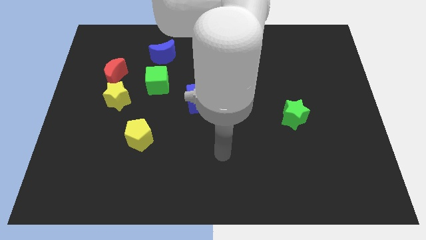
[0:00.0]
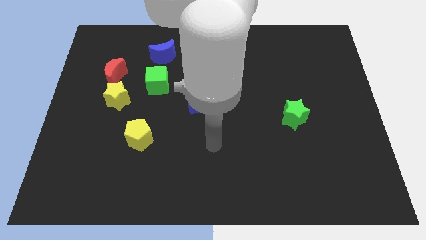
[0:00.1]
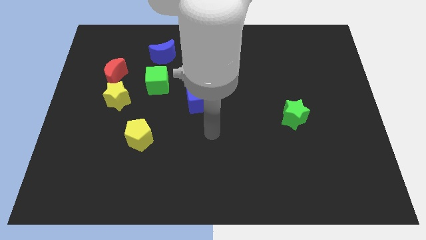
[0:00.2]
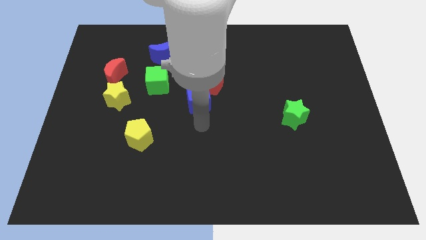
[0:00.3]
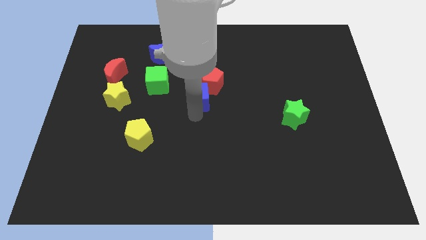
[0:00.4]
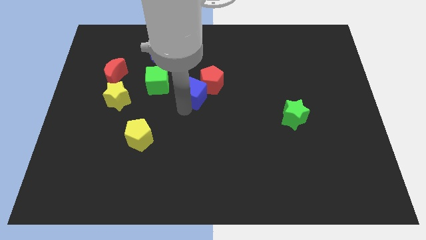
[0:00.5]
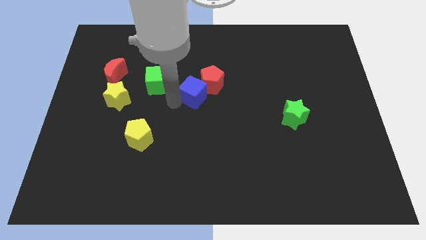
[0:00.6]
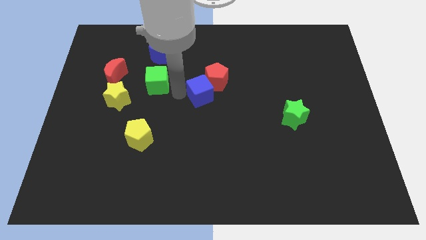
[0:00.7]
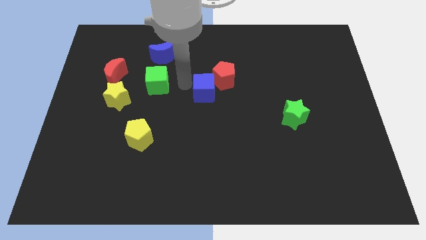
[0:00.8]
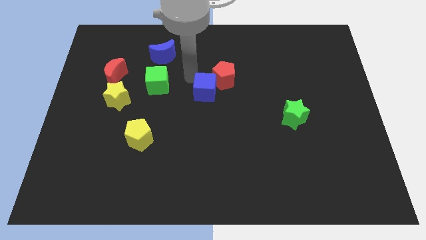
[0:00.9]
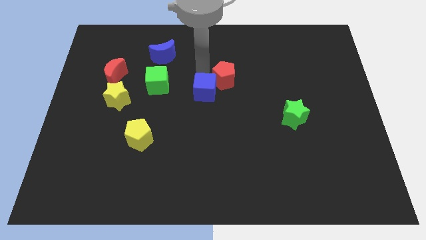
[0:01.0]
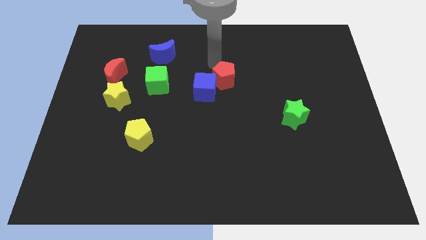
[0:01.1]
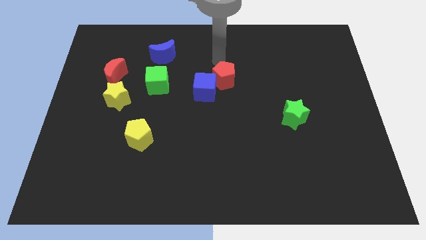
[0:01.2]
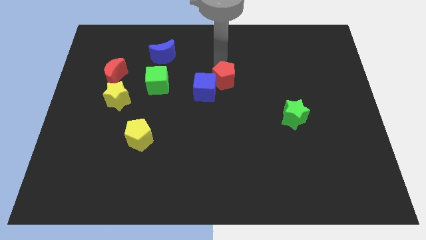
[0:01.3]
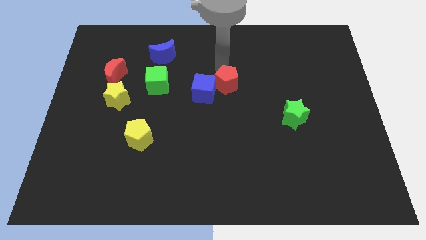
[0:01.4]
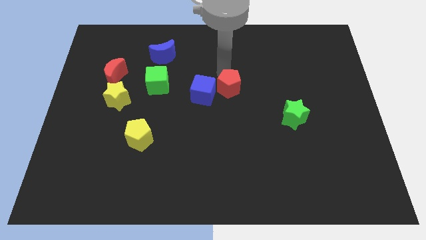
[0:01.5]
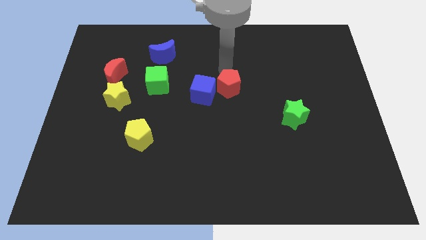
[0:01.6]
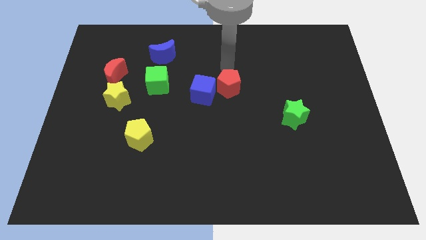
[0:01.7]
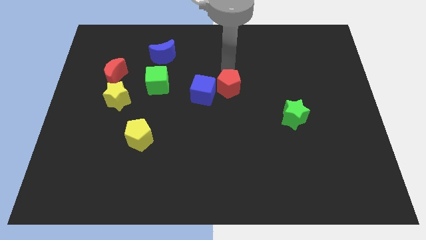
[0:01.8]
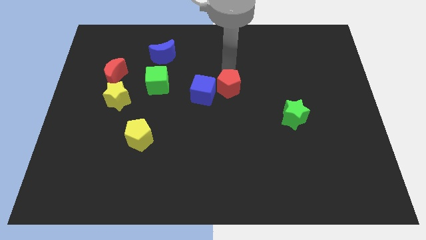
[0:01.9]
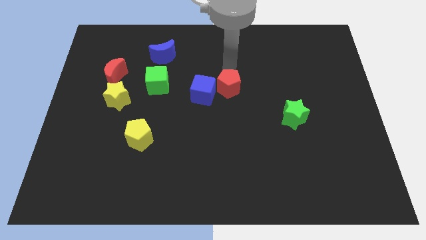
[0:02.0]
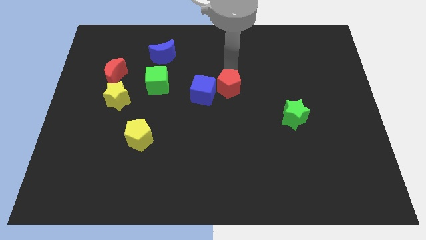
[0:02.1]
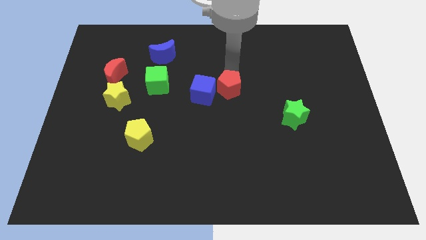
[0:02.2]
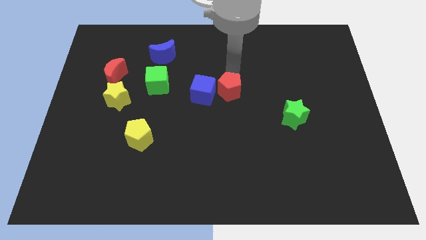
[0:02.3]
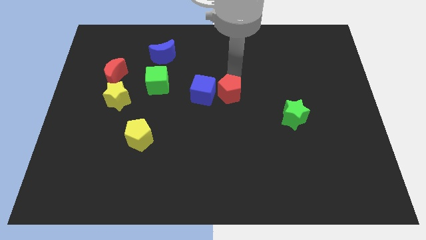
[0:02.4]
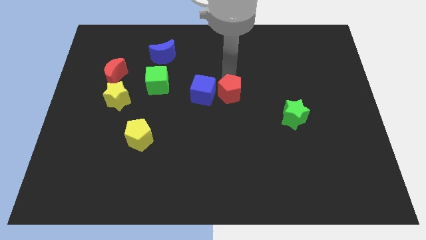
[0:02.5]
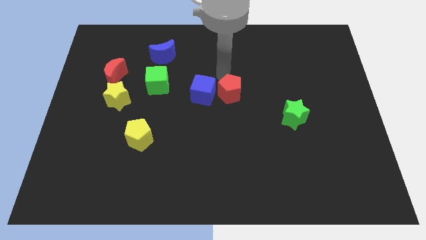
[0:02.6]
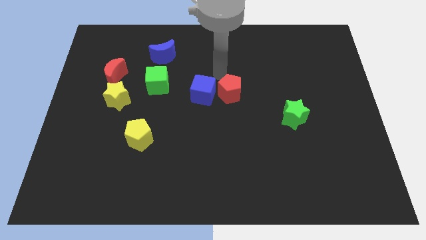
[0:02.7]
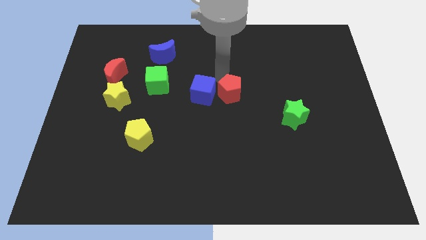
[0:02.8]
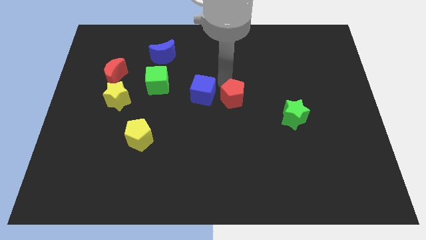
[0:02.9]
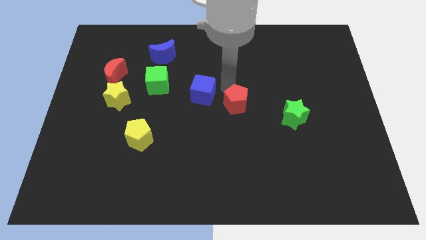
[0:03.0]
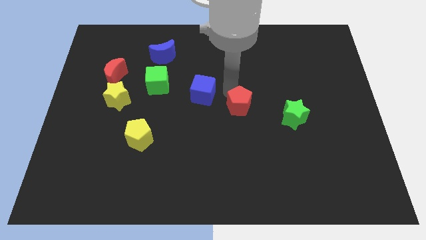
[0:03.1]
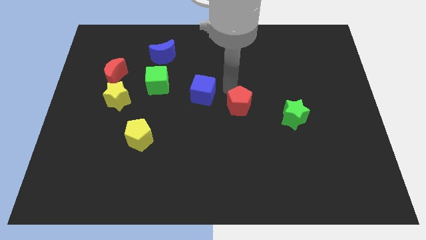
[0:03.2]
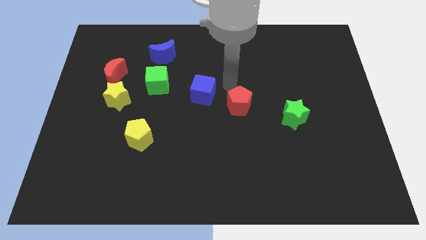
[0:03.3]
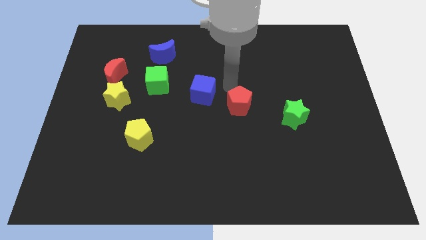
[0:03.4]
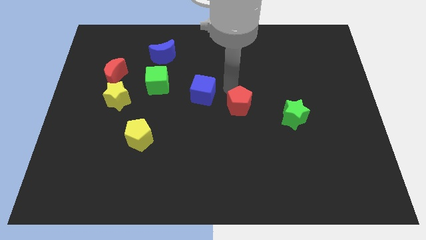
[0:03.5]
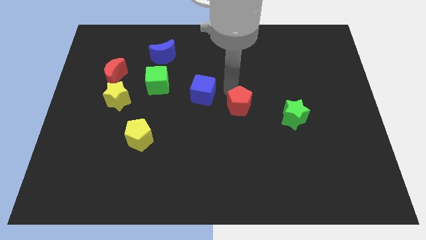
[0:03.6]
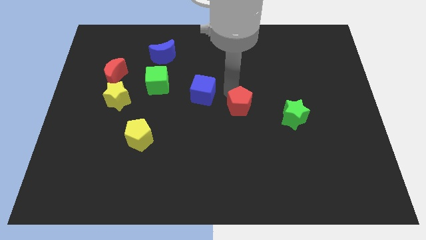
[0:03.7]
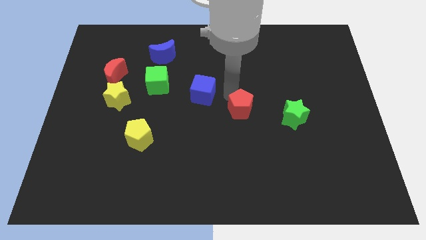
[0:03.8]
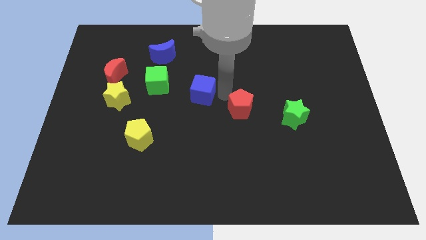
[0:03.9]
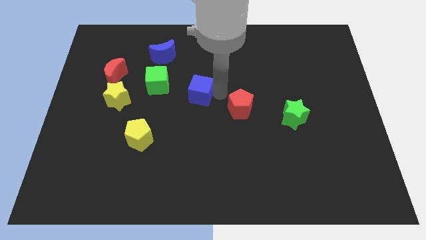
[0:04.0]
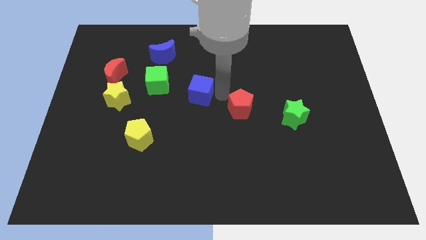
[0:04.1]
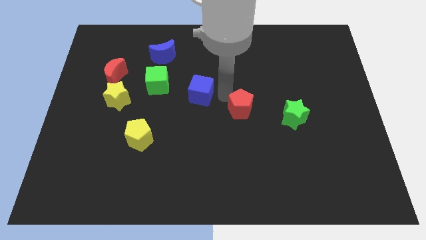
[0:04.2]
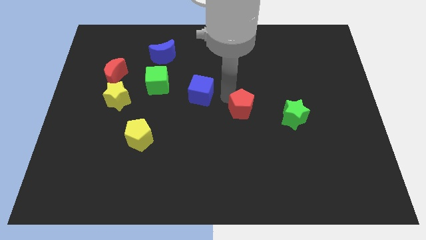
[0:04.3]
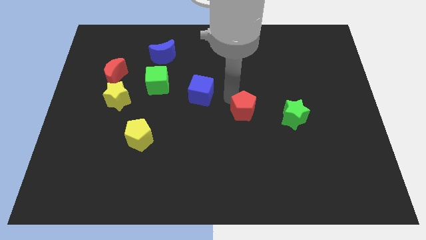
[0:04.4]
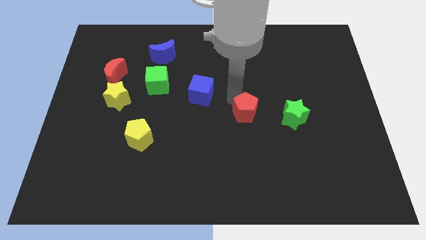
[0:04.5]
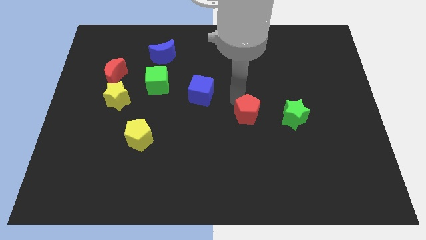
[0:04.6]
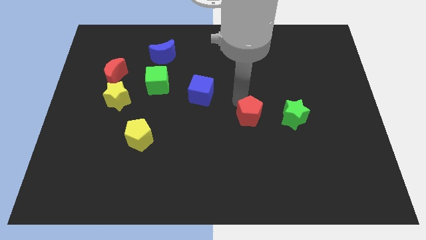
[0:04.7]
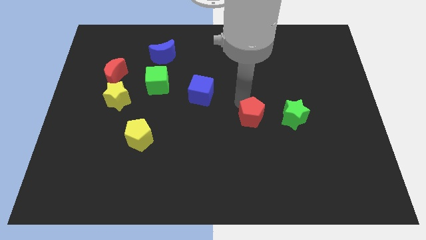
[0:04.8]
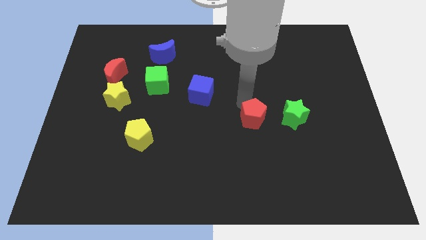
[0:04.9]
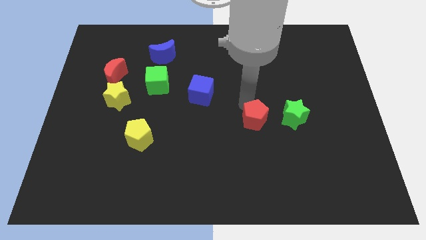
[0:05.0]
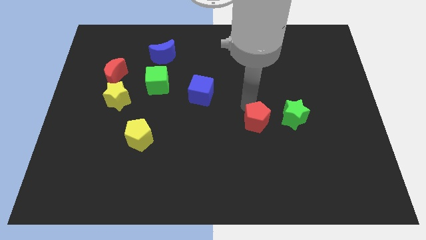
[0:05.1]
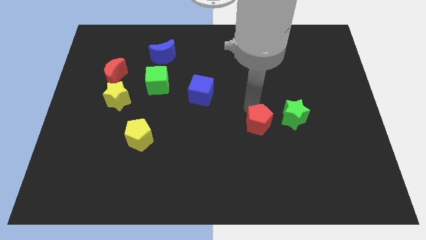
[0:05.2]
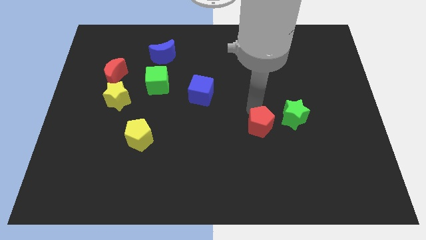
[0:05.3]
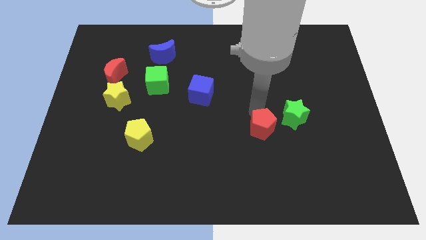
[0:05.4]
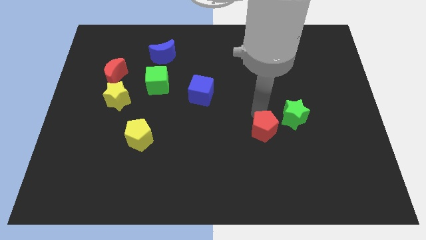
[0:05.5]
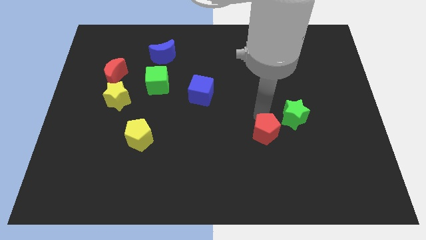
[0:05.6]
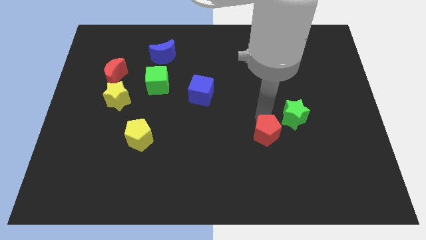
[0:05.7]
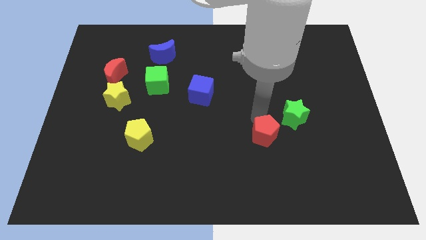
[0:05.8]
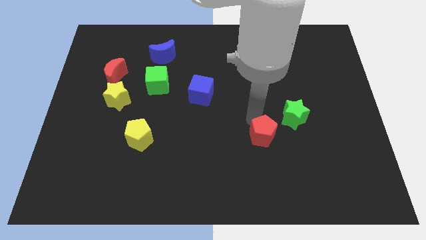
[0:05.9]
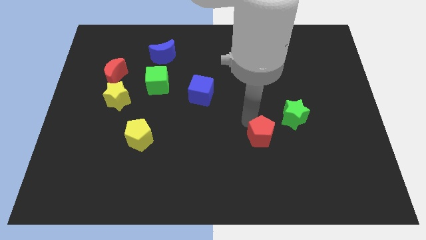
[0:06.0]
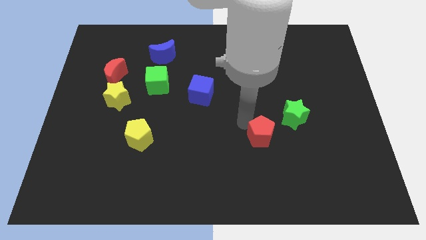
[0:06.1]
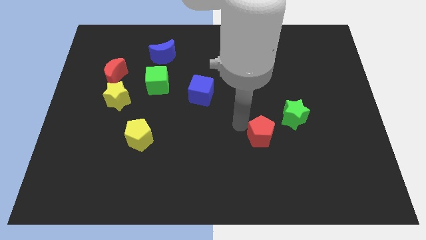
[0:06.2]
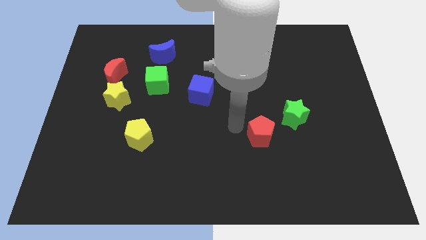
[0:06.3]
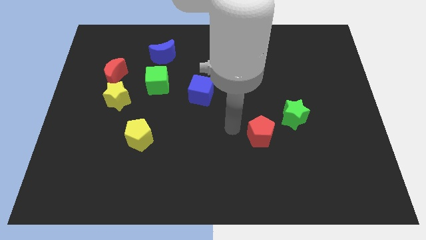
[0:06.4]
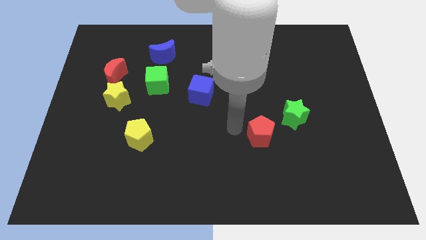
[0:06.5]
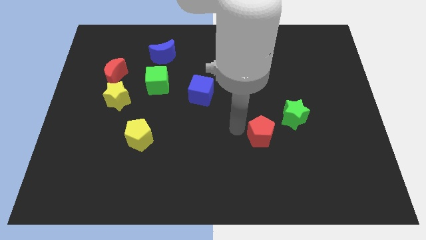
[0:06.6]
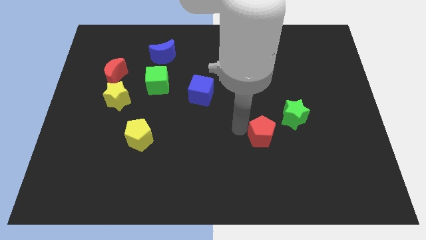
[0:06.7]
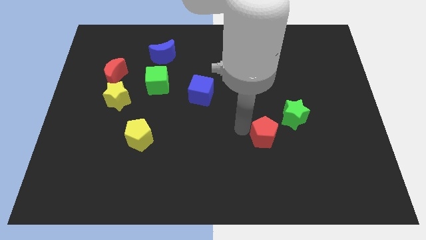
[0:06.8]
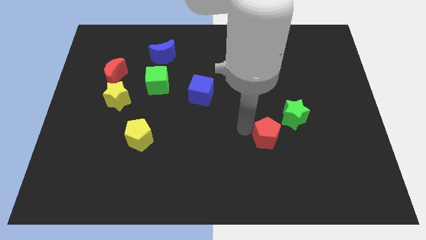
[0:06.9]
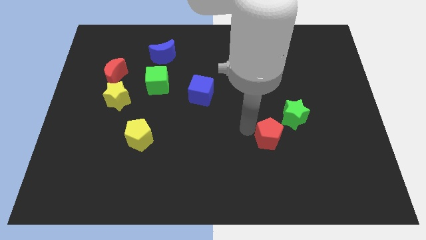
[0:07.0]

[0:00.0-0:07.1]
move the red pentagon downwards and right

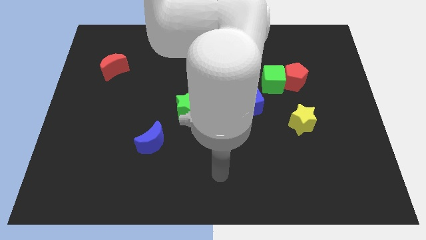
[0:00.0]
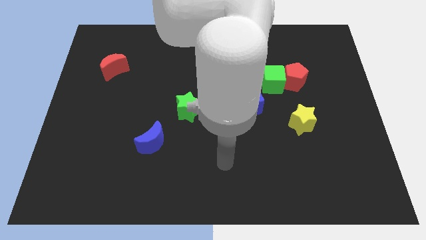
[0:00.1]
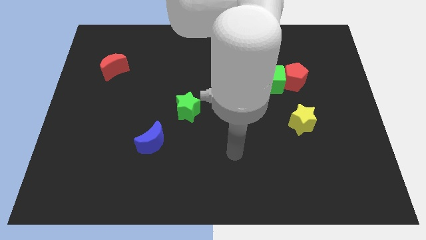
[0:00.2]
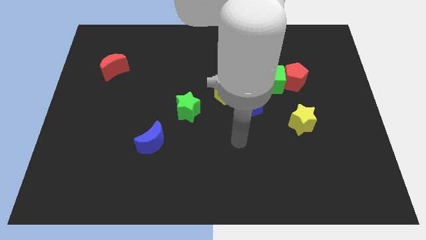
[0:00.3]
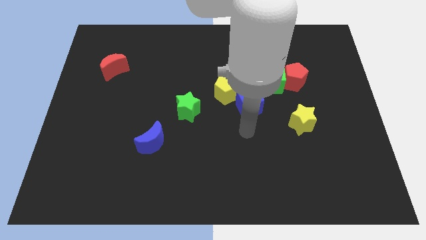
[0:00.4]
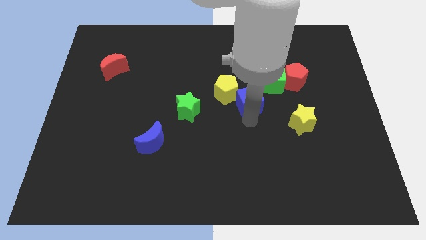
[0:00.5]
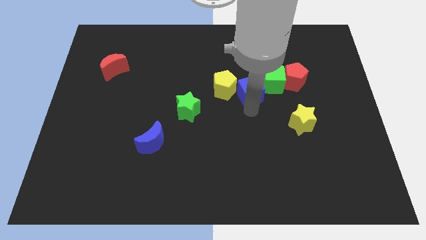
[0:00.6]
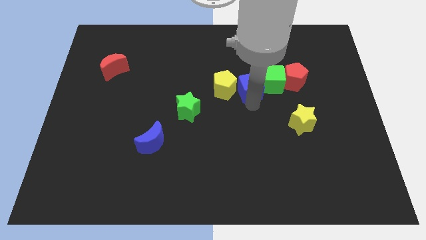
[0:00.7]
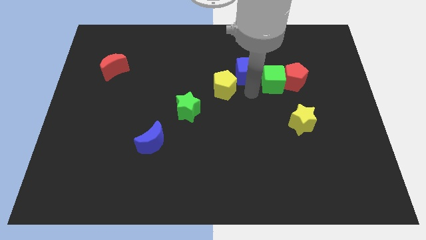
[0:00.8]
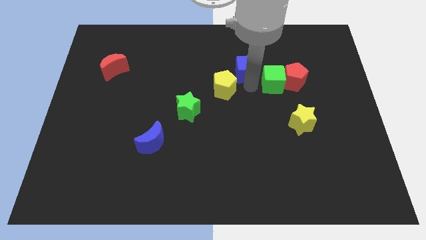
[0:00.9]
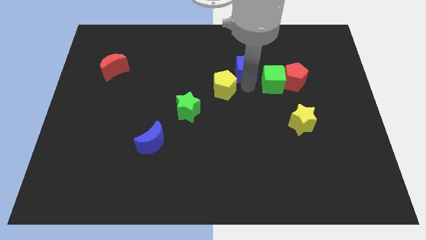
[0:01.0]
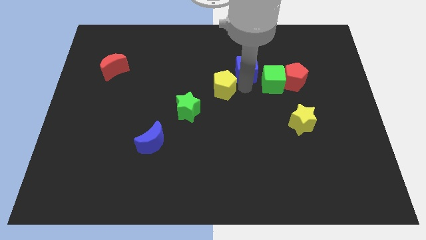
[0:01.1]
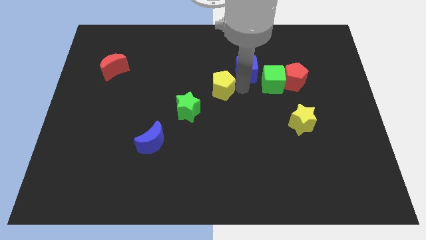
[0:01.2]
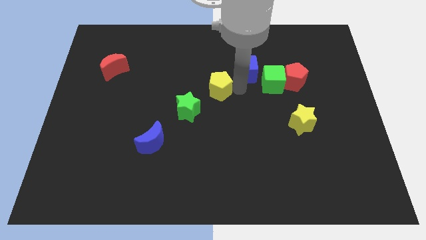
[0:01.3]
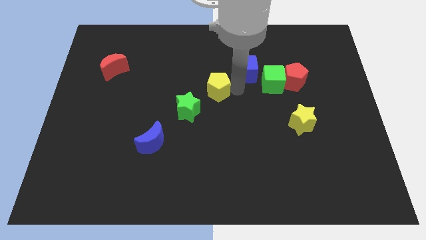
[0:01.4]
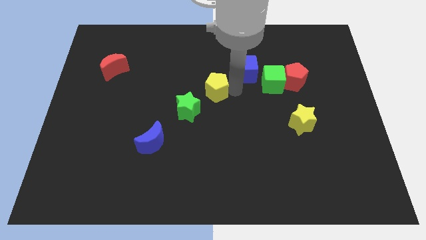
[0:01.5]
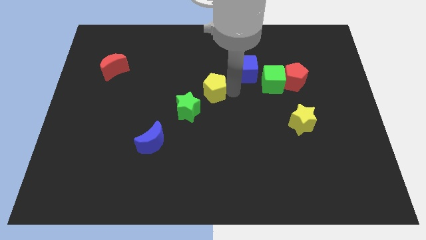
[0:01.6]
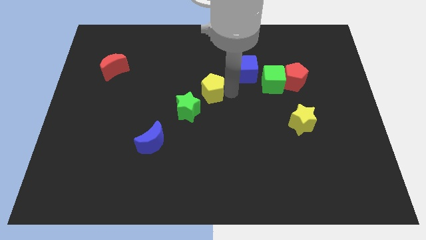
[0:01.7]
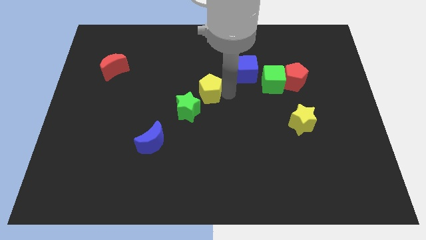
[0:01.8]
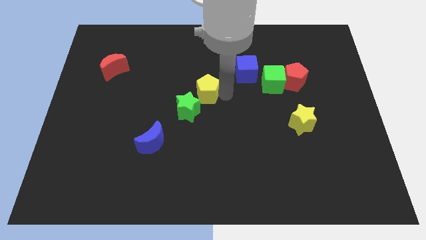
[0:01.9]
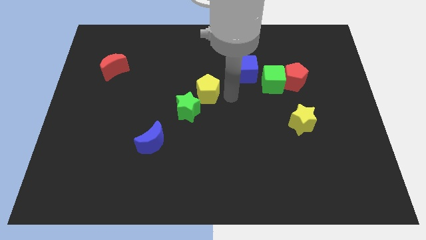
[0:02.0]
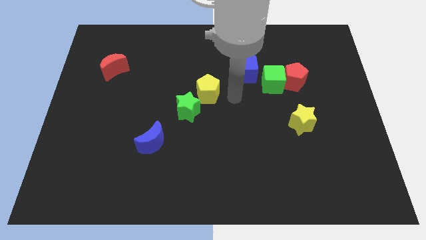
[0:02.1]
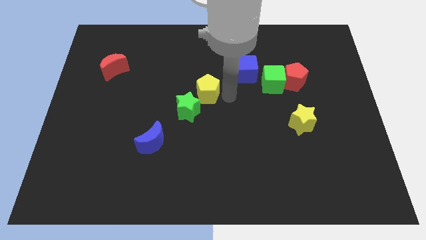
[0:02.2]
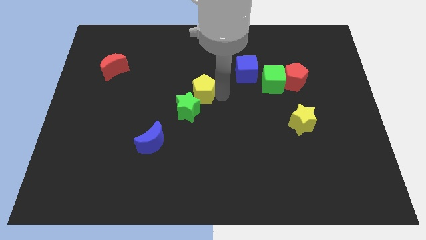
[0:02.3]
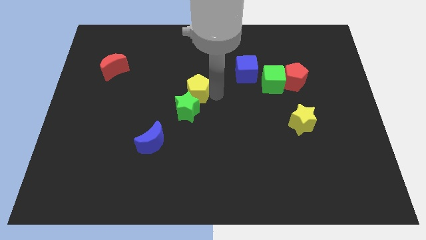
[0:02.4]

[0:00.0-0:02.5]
slide the yellow pentagon to the left a little
